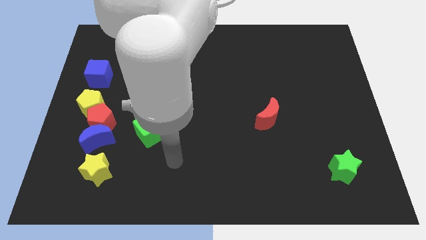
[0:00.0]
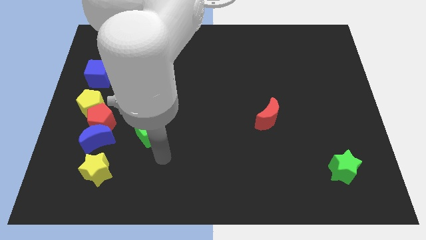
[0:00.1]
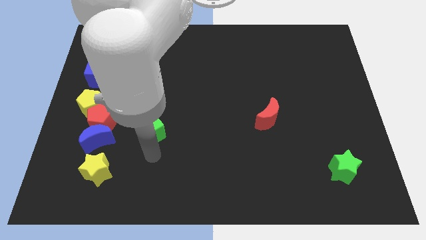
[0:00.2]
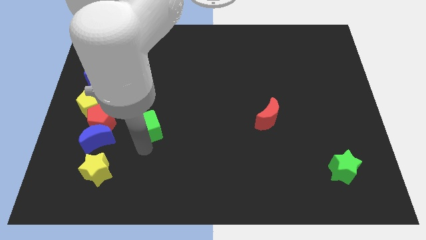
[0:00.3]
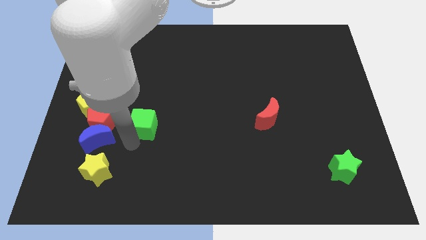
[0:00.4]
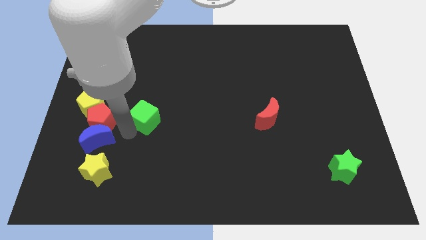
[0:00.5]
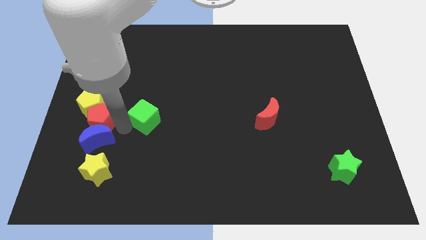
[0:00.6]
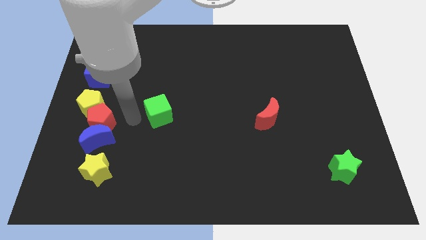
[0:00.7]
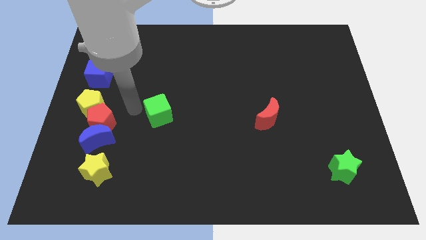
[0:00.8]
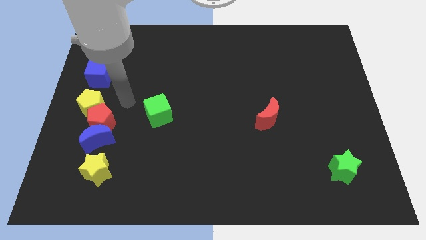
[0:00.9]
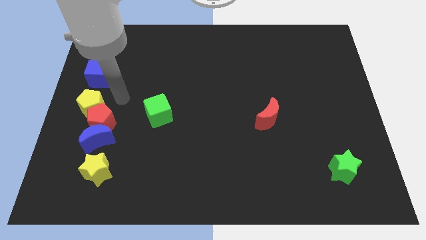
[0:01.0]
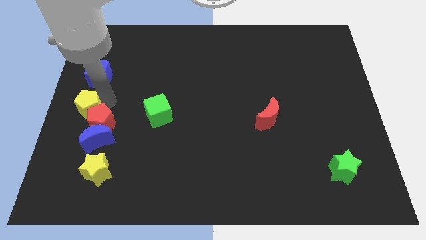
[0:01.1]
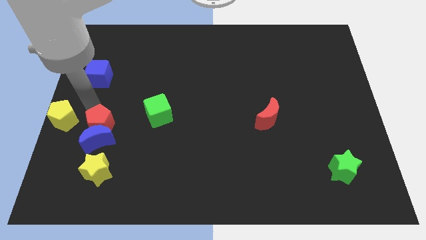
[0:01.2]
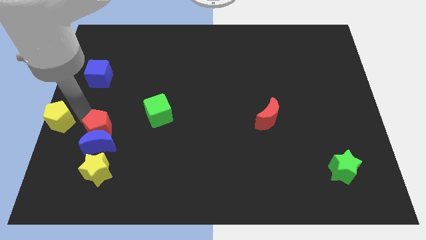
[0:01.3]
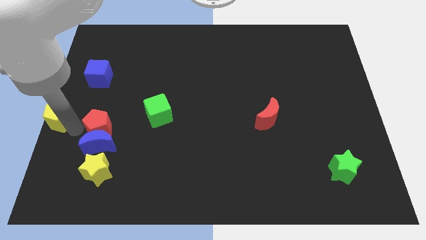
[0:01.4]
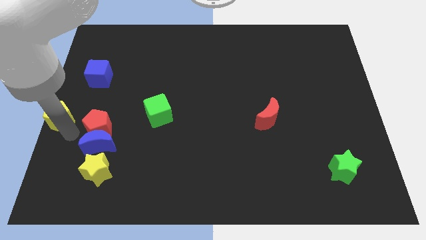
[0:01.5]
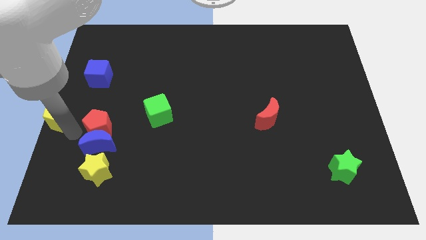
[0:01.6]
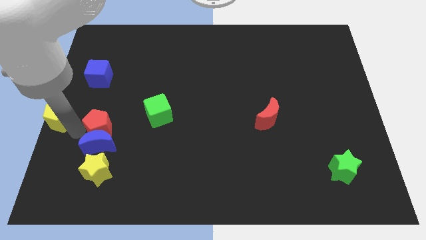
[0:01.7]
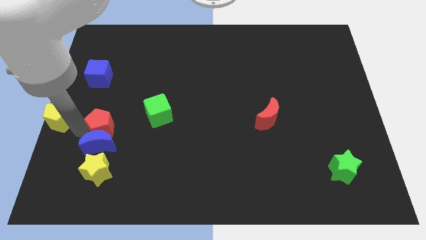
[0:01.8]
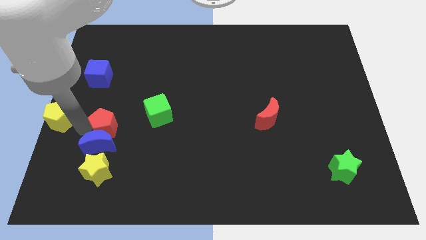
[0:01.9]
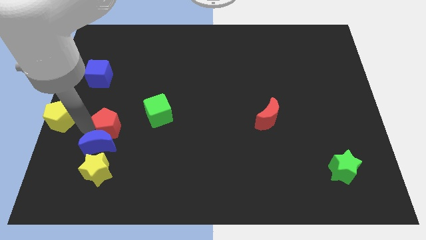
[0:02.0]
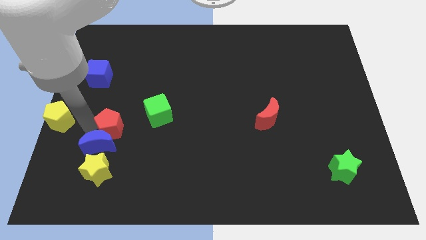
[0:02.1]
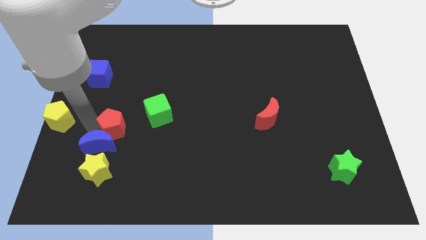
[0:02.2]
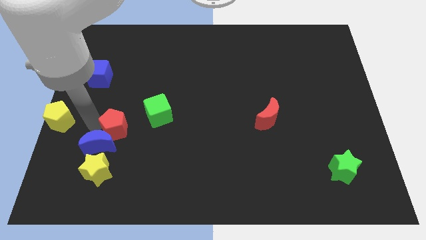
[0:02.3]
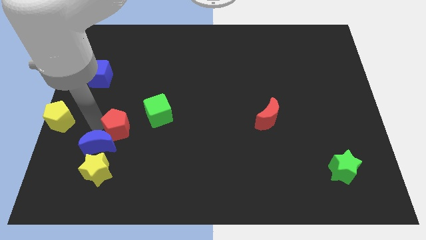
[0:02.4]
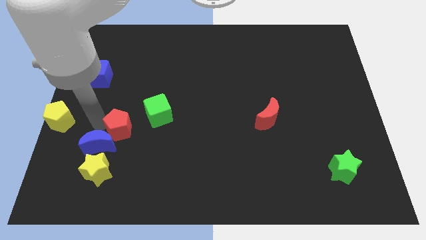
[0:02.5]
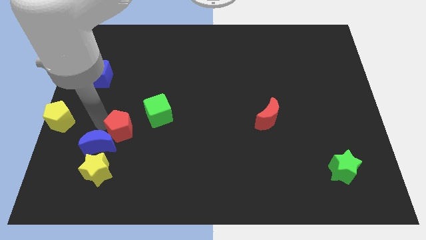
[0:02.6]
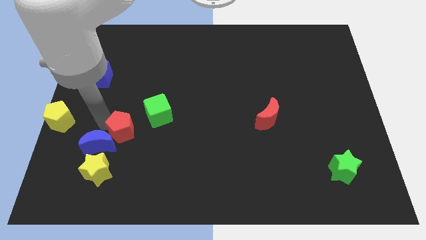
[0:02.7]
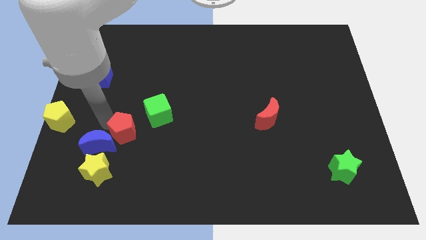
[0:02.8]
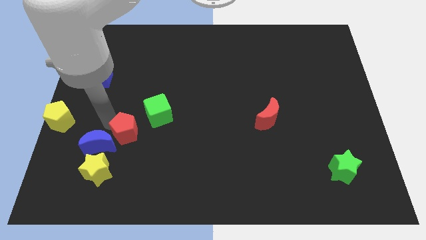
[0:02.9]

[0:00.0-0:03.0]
pull the red pentagon apart from the blue moon and yellow pentagon

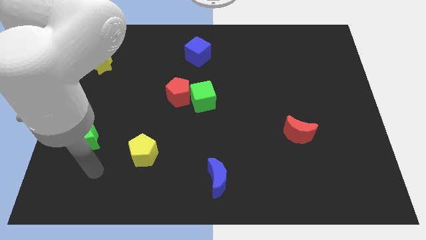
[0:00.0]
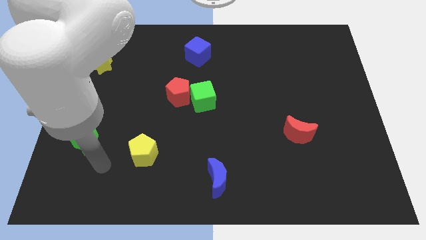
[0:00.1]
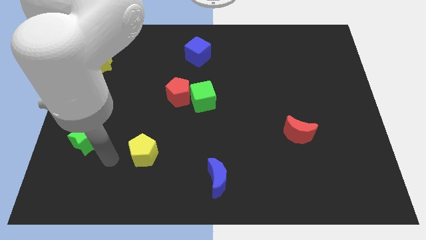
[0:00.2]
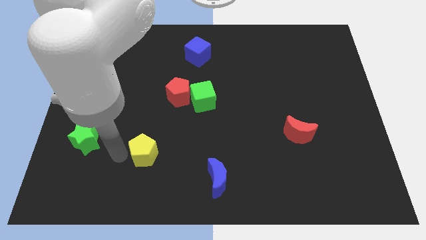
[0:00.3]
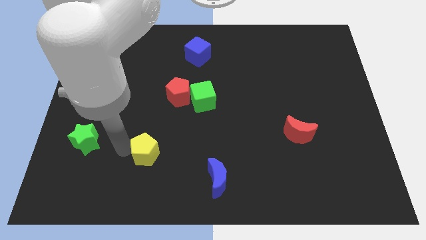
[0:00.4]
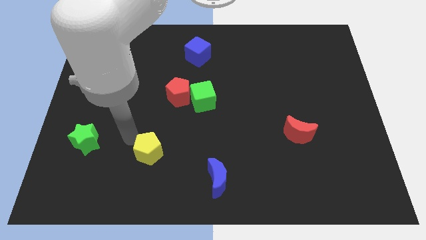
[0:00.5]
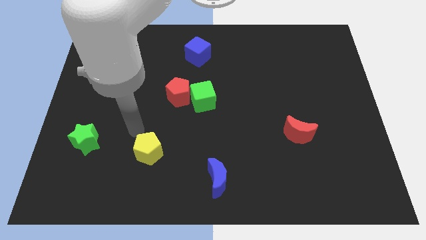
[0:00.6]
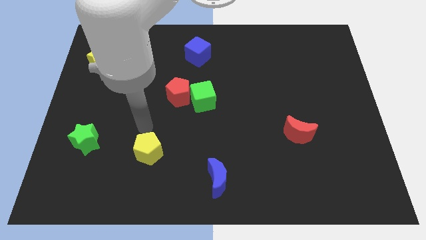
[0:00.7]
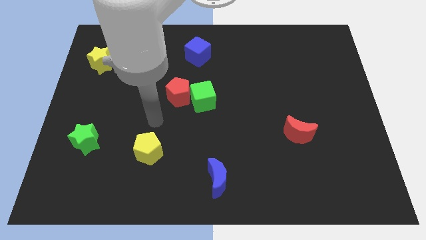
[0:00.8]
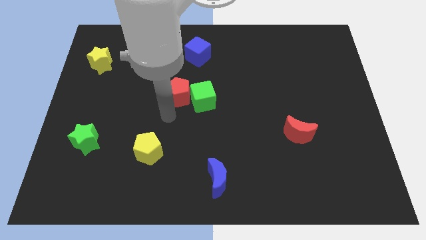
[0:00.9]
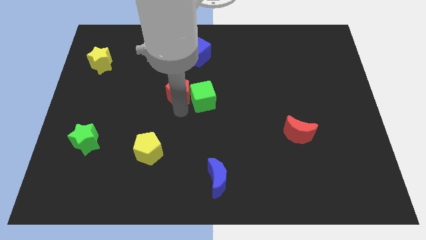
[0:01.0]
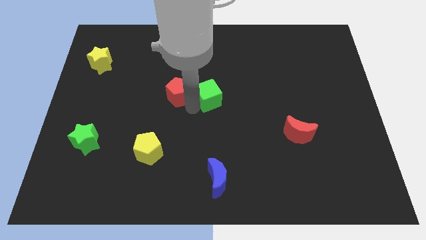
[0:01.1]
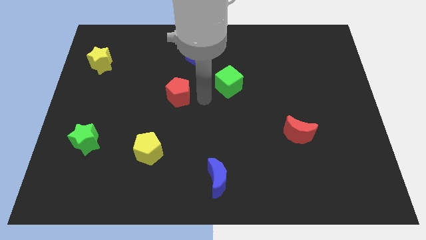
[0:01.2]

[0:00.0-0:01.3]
pull the red pentagon apart from the green cube

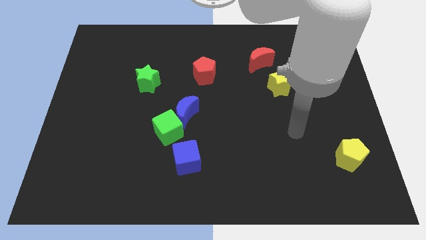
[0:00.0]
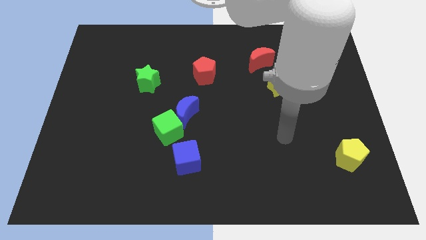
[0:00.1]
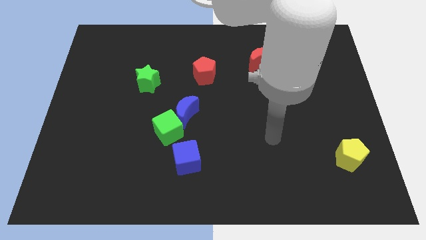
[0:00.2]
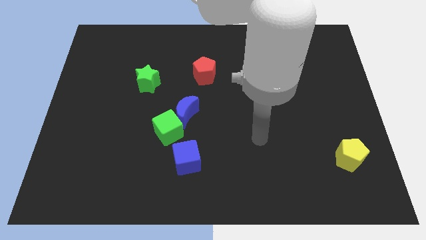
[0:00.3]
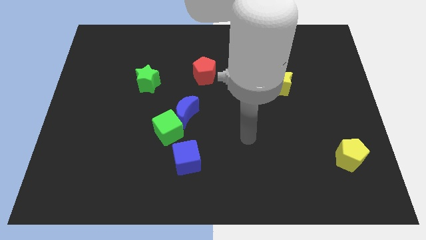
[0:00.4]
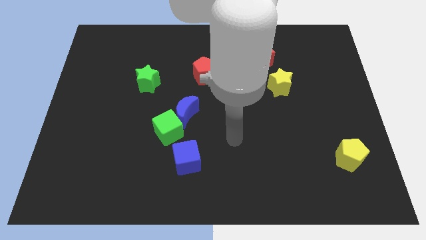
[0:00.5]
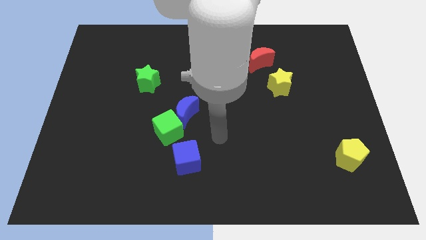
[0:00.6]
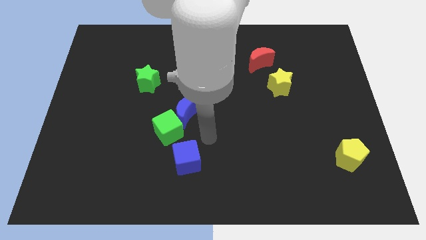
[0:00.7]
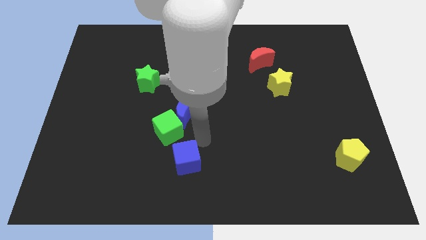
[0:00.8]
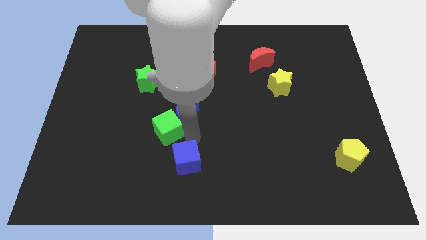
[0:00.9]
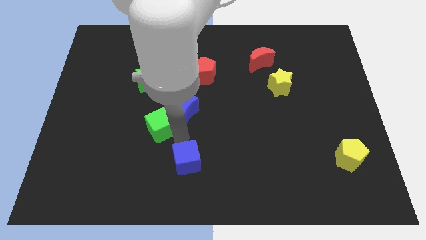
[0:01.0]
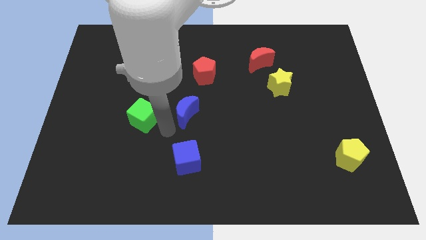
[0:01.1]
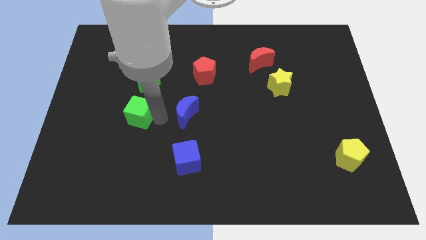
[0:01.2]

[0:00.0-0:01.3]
pull the blue moon apart from the green cube

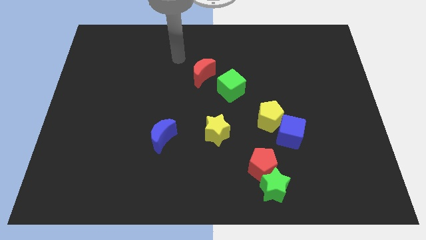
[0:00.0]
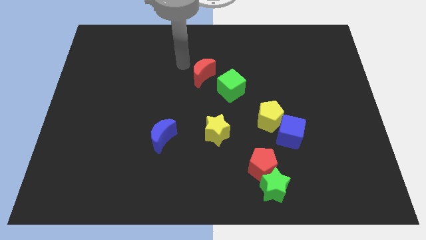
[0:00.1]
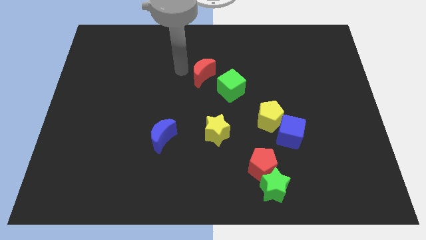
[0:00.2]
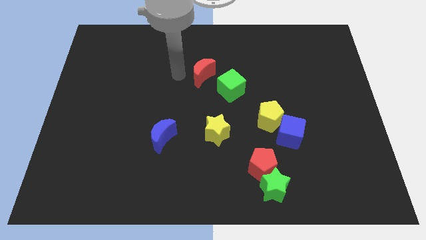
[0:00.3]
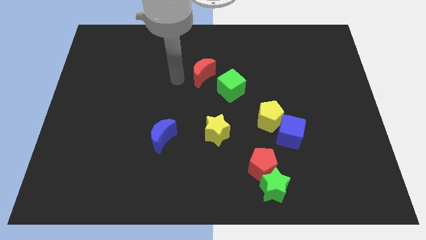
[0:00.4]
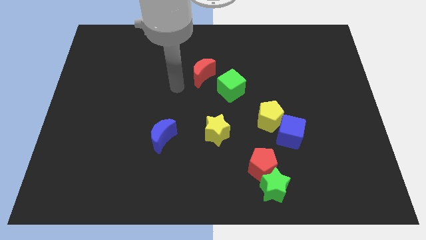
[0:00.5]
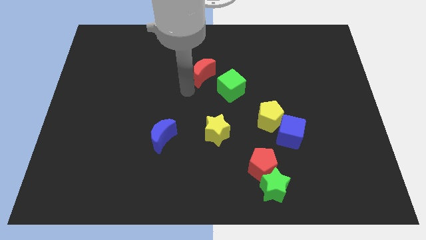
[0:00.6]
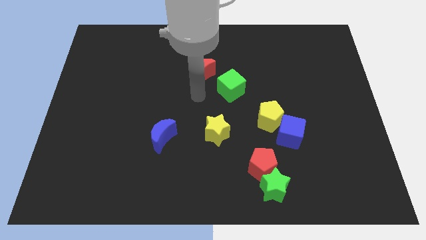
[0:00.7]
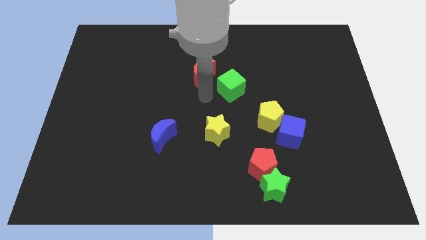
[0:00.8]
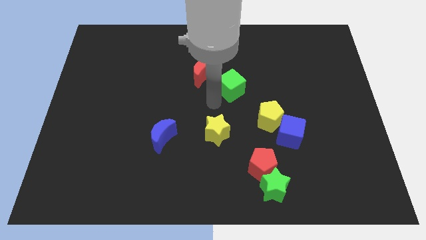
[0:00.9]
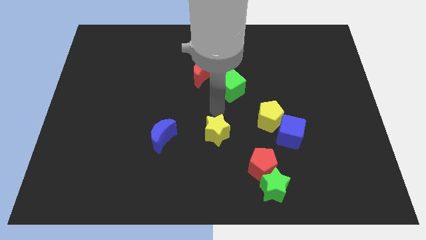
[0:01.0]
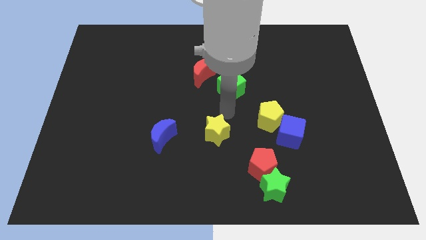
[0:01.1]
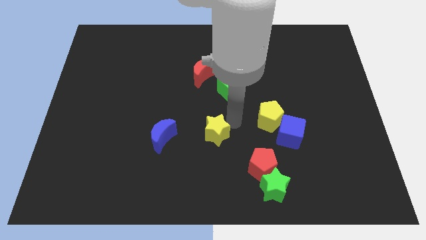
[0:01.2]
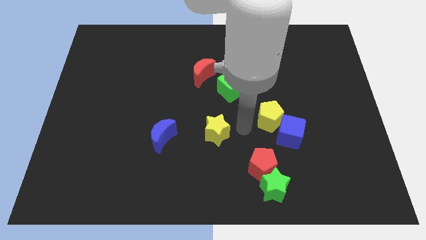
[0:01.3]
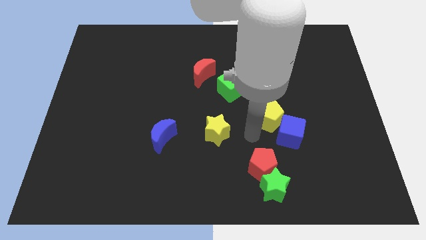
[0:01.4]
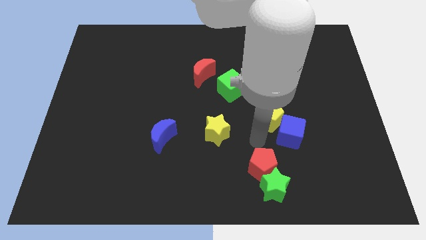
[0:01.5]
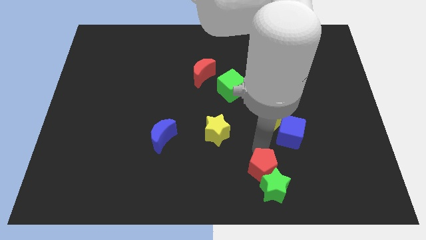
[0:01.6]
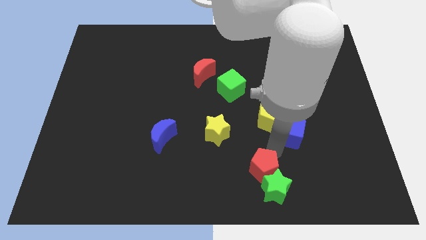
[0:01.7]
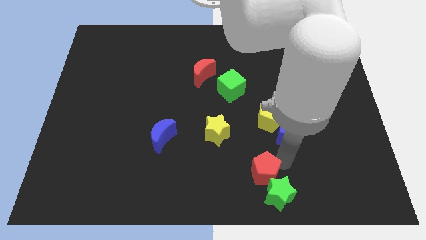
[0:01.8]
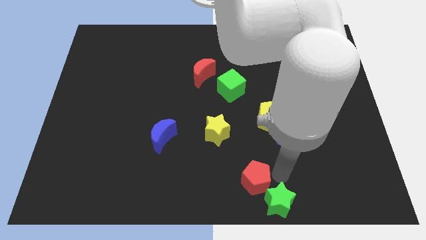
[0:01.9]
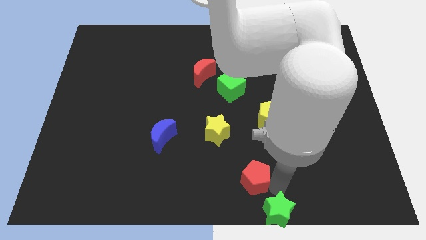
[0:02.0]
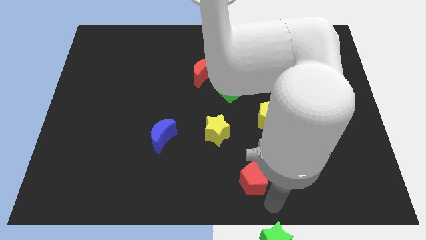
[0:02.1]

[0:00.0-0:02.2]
pull the red pentagon apart from the green star

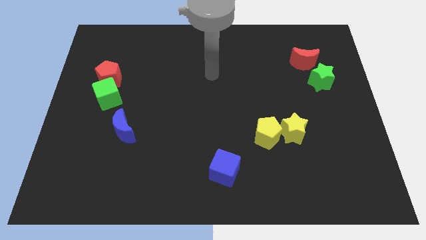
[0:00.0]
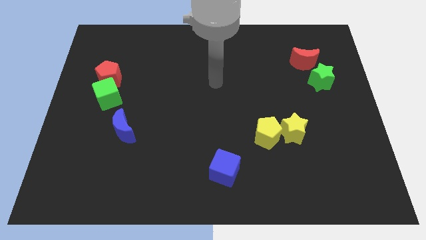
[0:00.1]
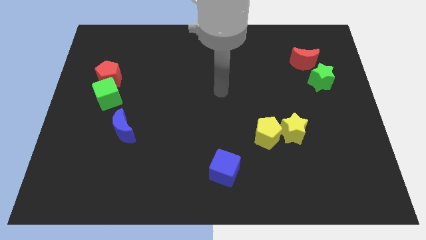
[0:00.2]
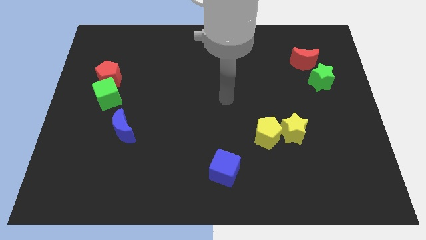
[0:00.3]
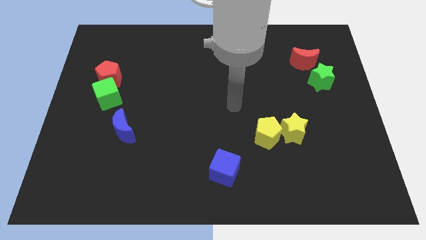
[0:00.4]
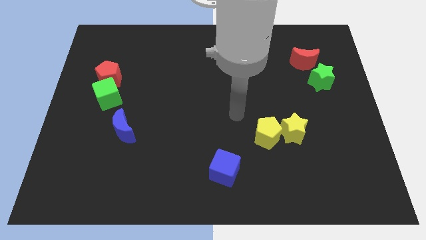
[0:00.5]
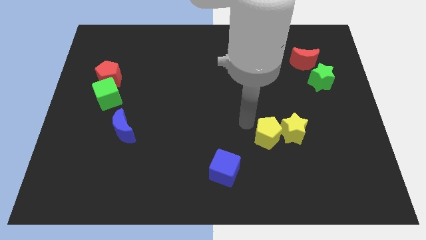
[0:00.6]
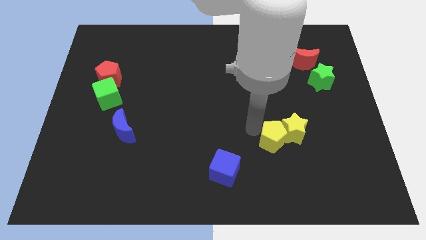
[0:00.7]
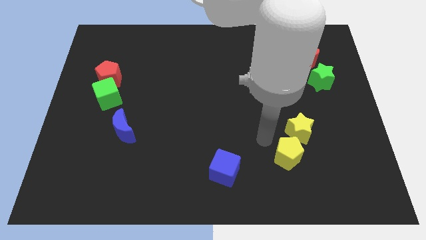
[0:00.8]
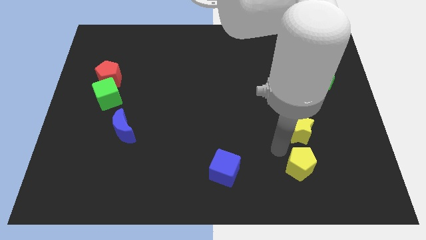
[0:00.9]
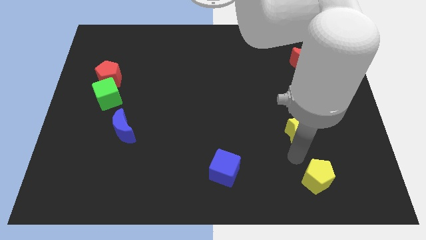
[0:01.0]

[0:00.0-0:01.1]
move the yellow star away from the yellow pentagon

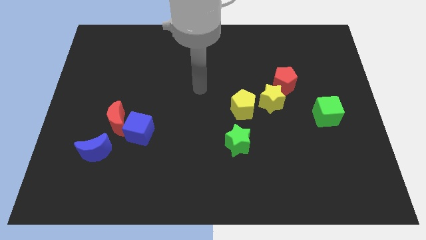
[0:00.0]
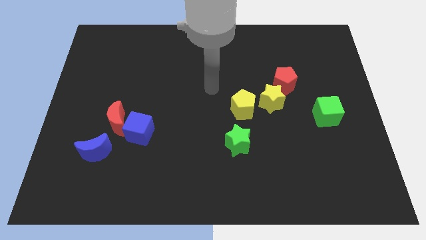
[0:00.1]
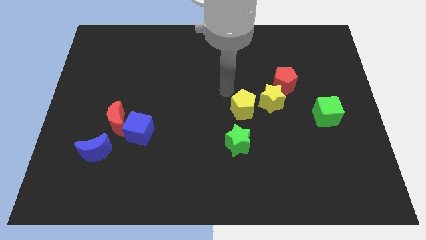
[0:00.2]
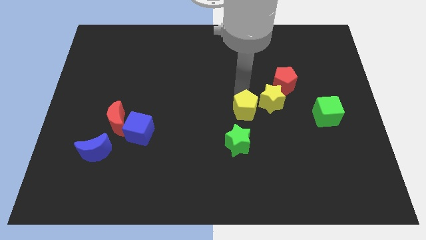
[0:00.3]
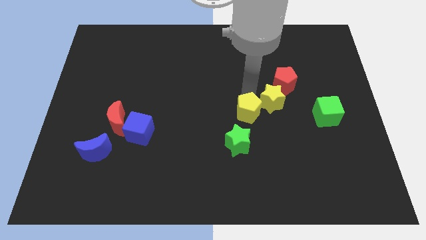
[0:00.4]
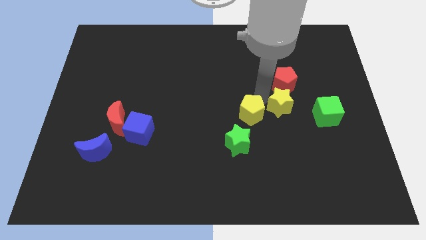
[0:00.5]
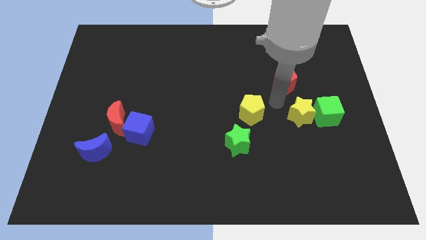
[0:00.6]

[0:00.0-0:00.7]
pull the red pentagon apart from the yellow star
